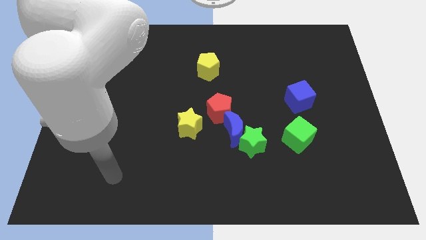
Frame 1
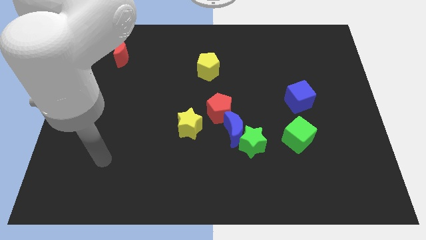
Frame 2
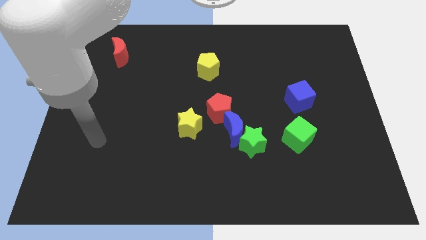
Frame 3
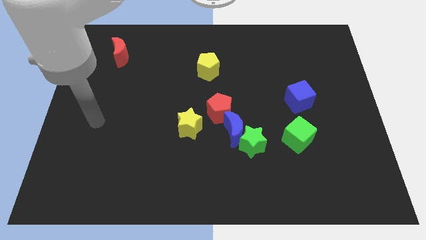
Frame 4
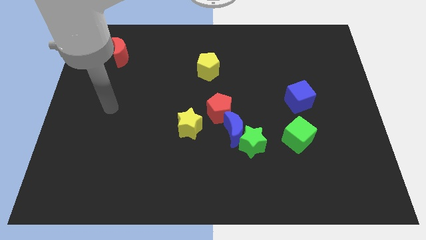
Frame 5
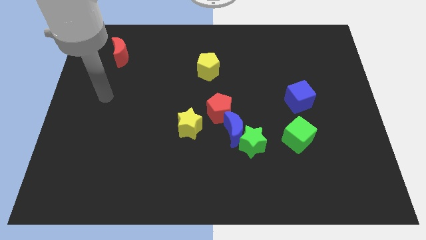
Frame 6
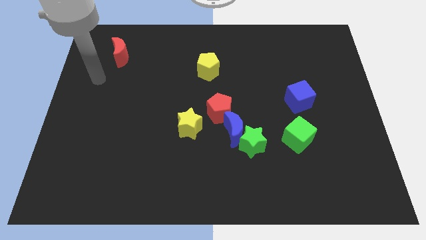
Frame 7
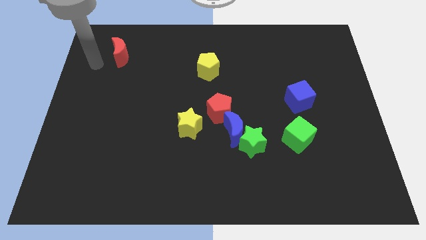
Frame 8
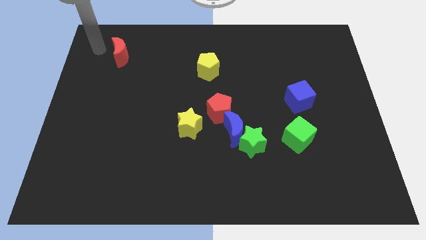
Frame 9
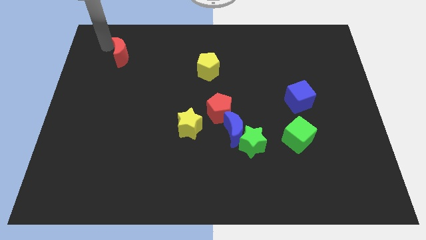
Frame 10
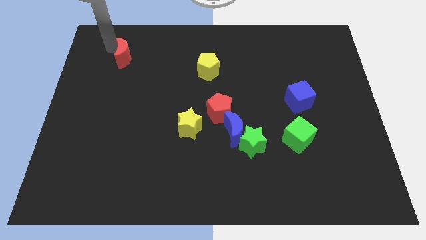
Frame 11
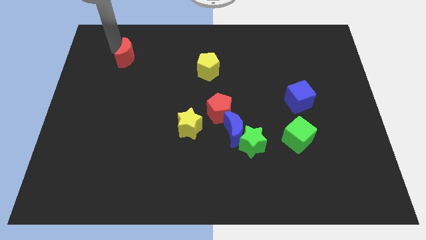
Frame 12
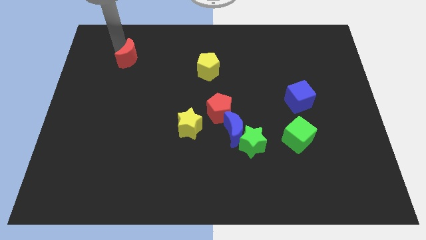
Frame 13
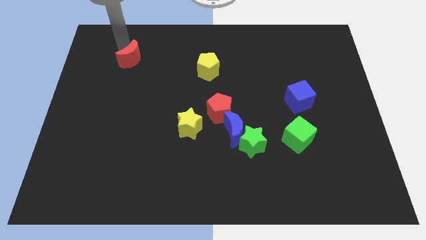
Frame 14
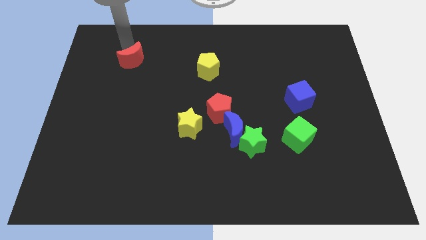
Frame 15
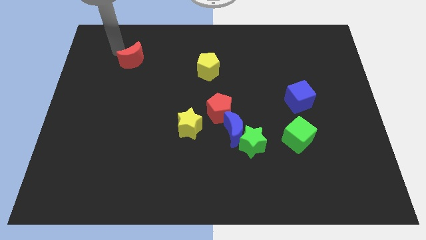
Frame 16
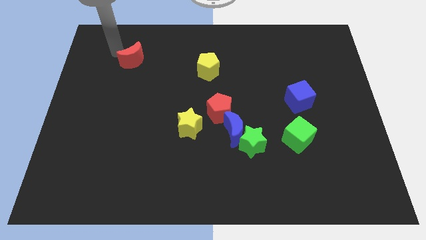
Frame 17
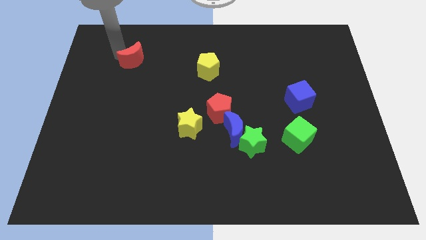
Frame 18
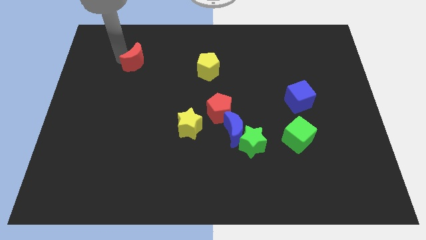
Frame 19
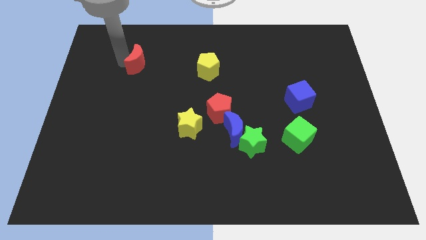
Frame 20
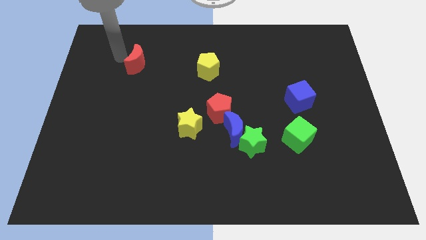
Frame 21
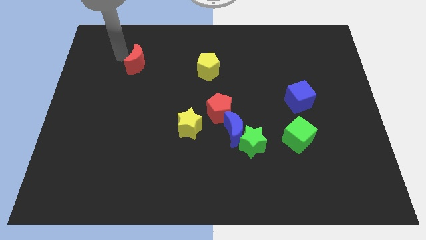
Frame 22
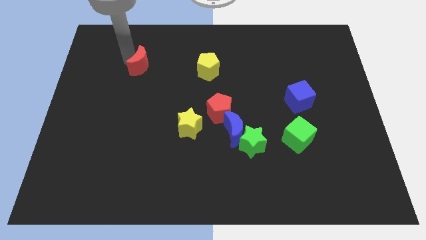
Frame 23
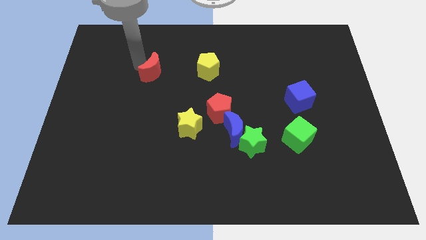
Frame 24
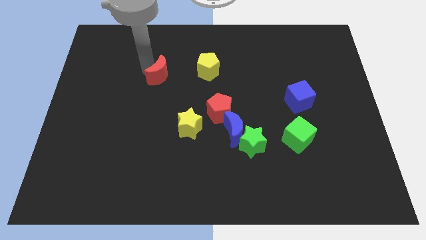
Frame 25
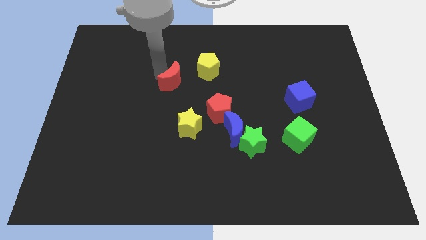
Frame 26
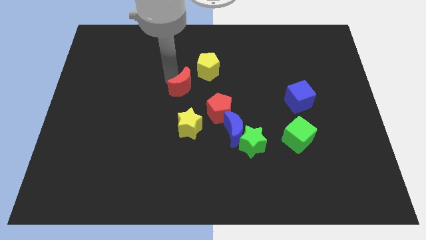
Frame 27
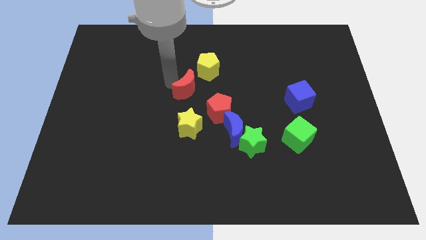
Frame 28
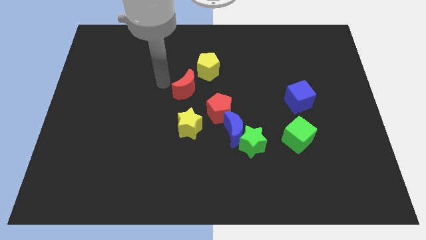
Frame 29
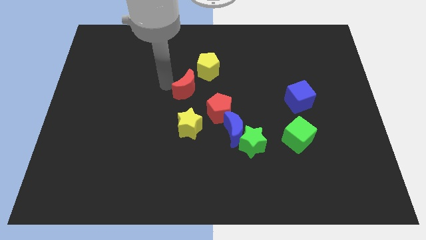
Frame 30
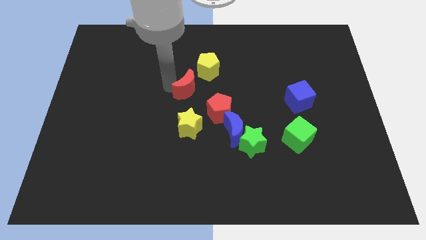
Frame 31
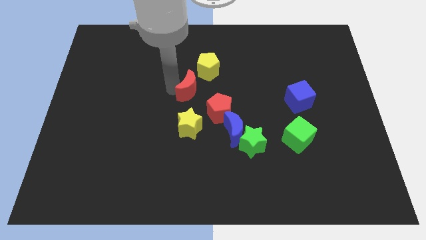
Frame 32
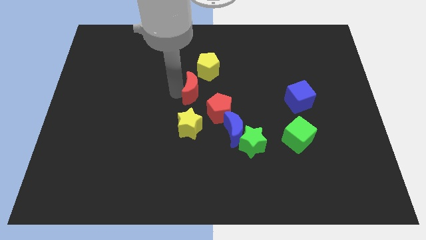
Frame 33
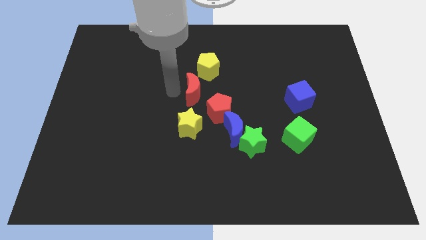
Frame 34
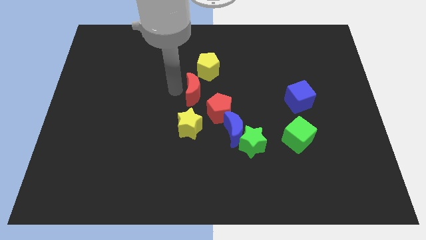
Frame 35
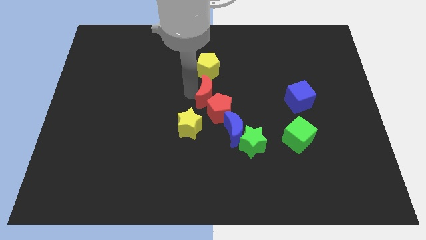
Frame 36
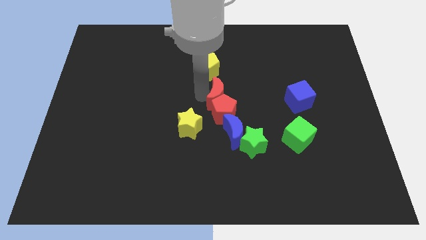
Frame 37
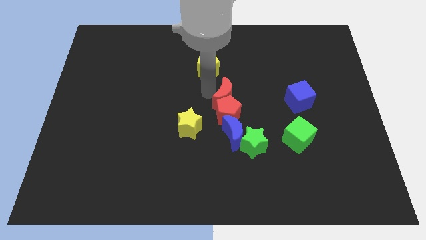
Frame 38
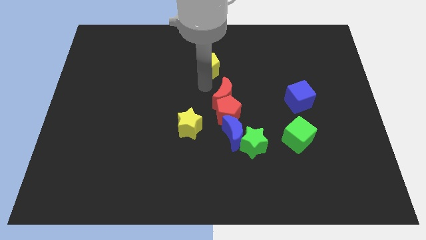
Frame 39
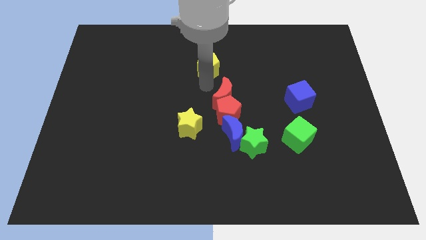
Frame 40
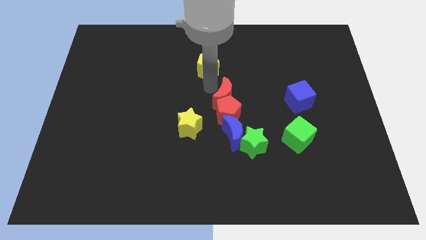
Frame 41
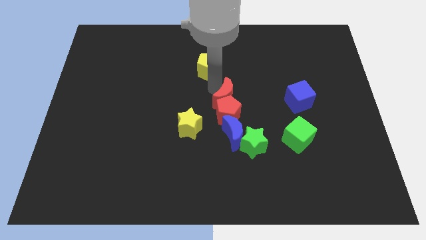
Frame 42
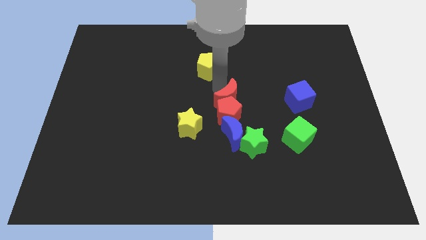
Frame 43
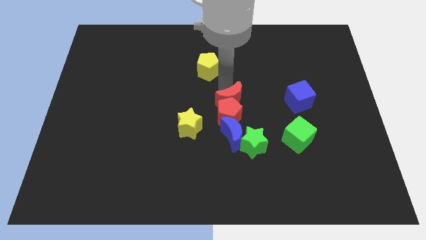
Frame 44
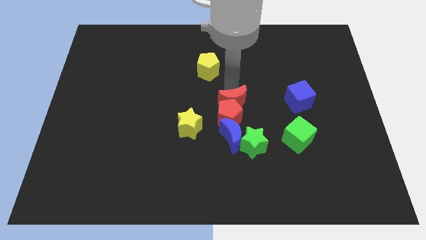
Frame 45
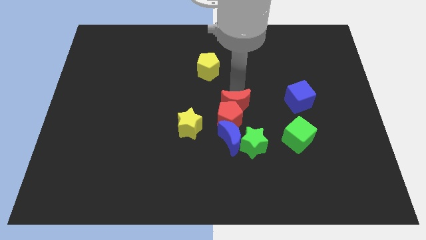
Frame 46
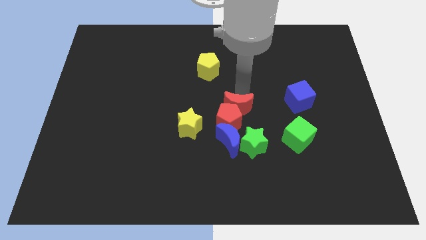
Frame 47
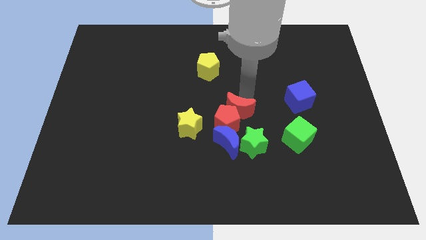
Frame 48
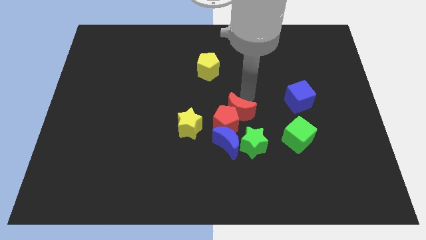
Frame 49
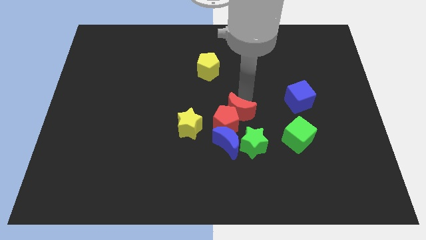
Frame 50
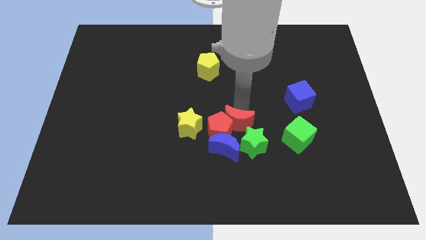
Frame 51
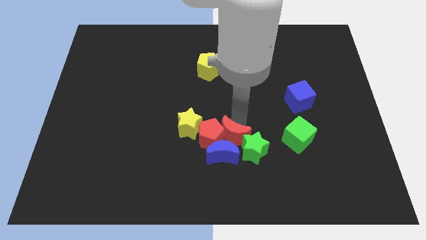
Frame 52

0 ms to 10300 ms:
push the red moon towards the blue moon

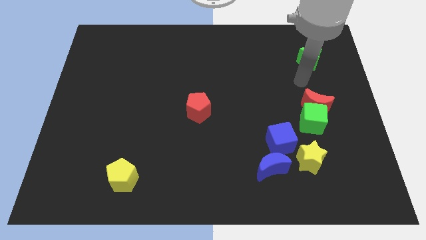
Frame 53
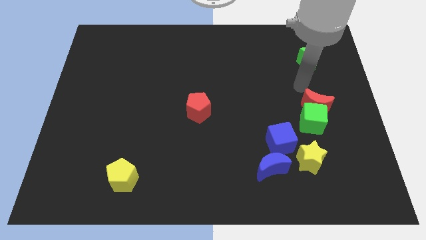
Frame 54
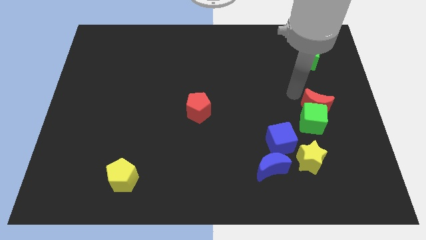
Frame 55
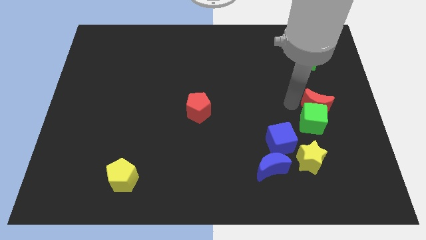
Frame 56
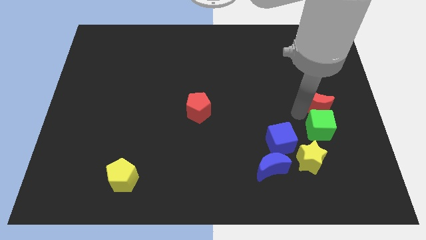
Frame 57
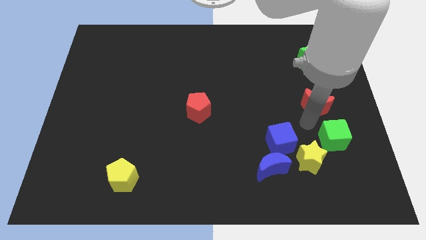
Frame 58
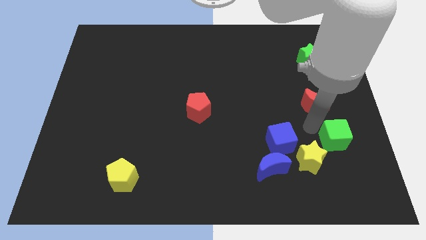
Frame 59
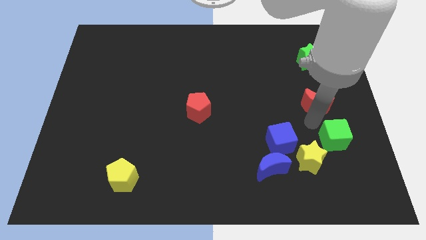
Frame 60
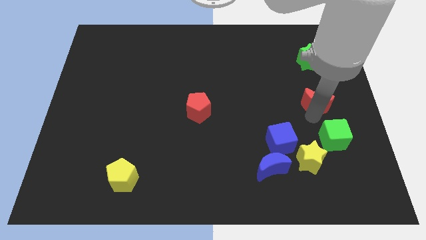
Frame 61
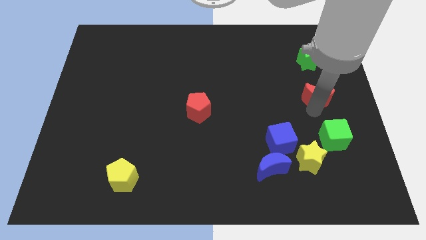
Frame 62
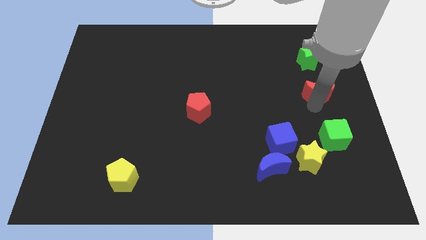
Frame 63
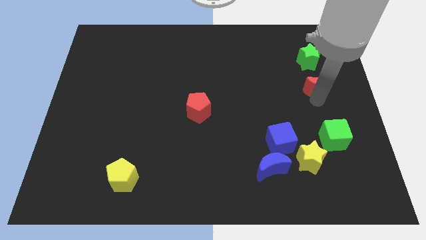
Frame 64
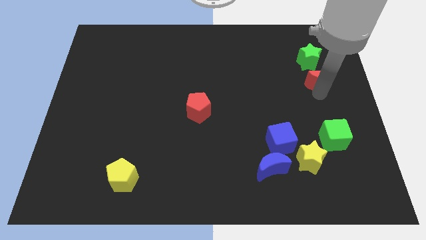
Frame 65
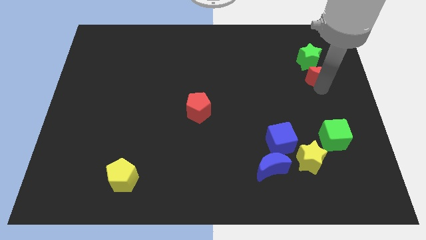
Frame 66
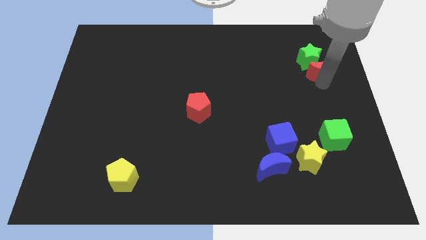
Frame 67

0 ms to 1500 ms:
move the red moon to the green star

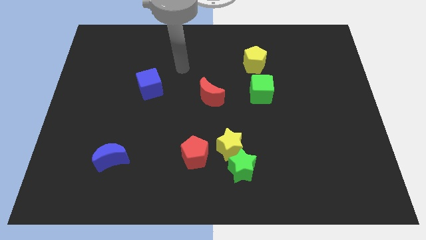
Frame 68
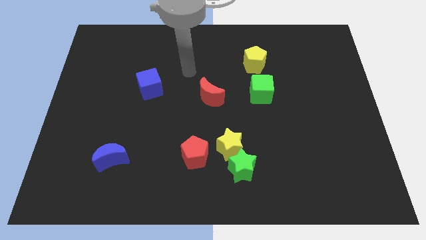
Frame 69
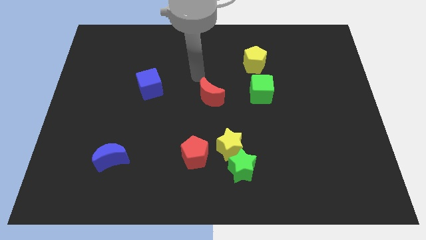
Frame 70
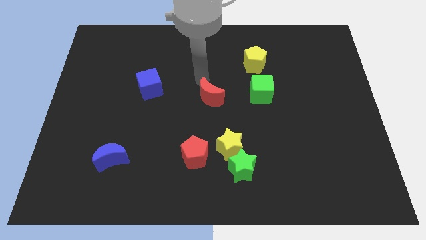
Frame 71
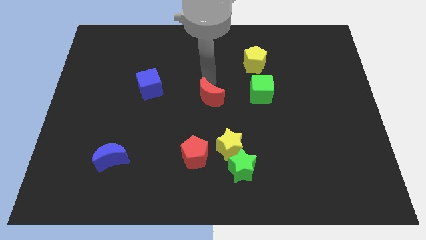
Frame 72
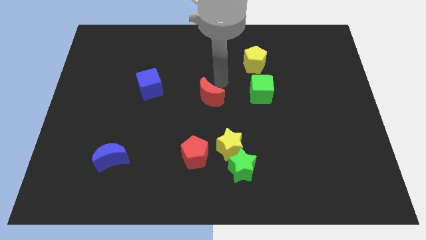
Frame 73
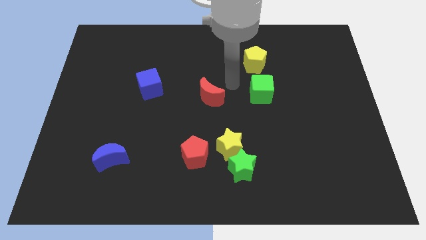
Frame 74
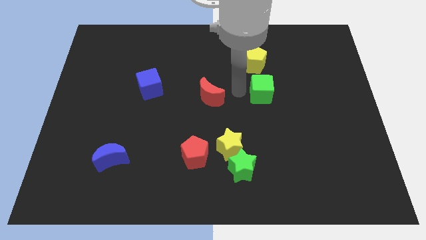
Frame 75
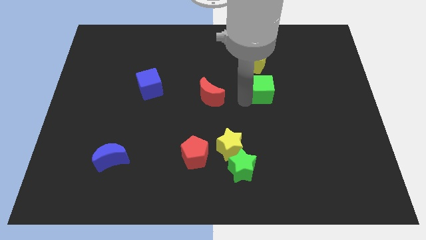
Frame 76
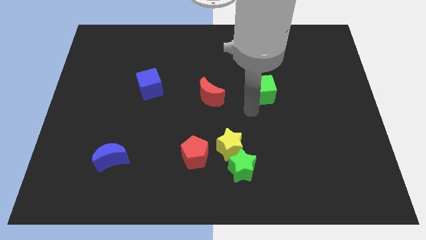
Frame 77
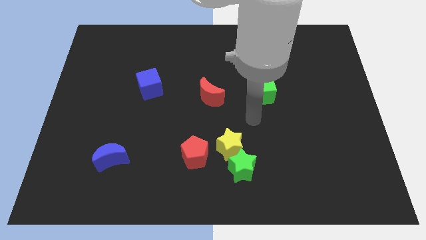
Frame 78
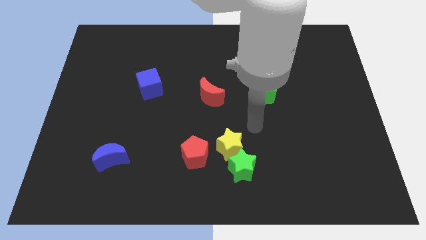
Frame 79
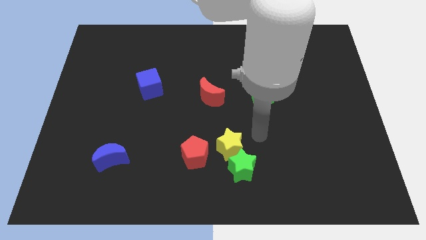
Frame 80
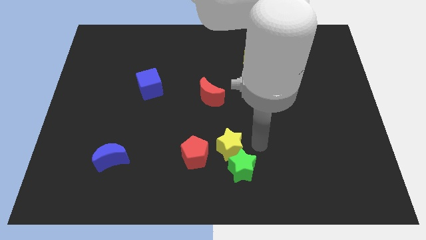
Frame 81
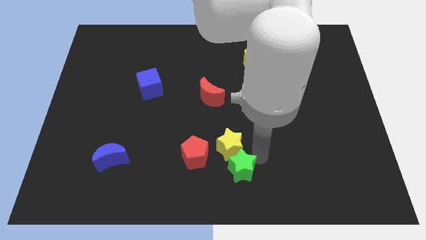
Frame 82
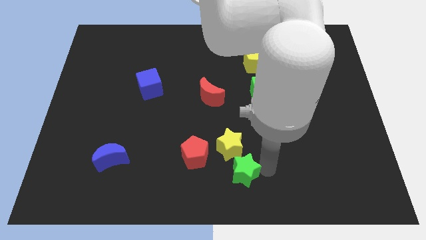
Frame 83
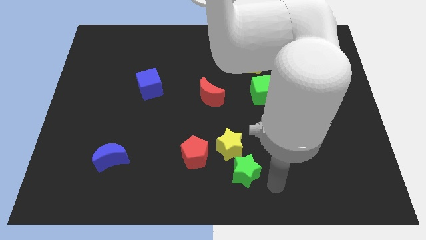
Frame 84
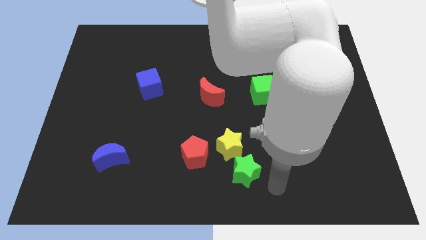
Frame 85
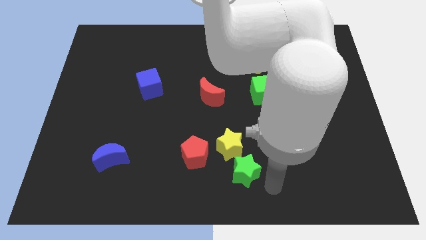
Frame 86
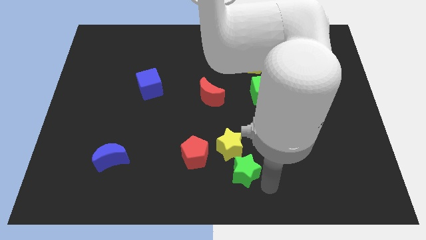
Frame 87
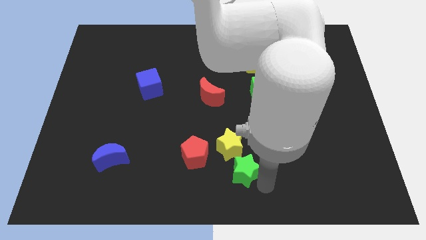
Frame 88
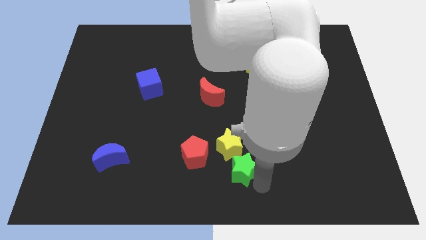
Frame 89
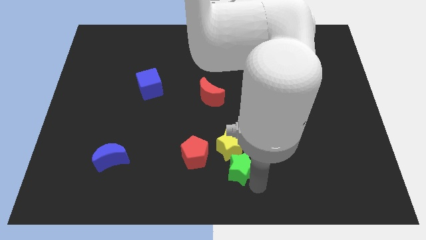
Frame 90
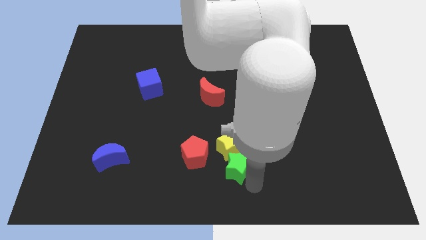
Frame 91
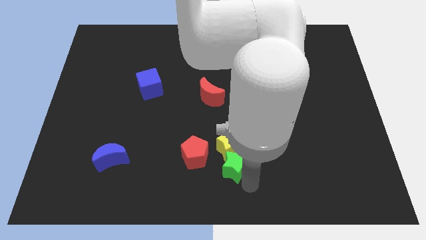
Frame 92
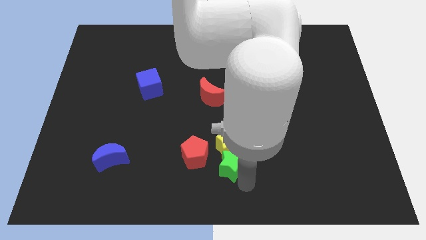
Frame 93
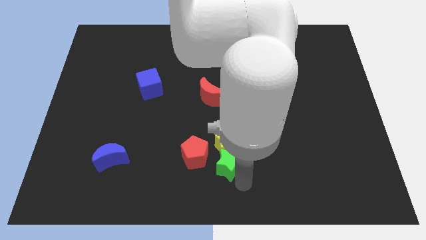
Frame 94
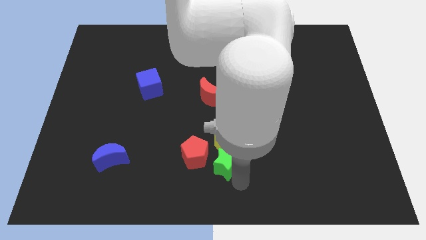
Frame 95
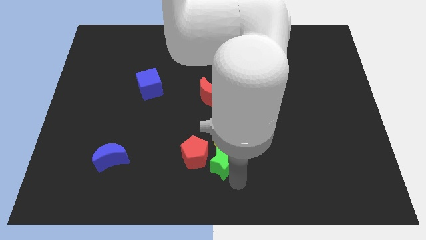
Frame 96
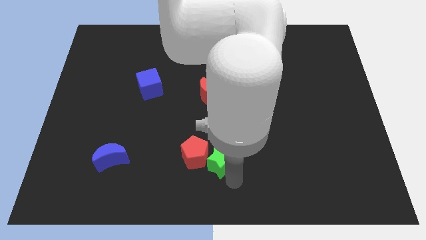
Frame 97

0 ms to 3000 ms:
slide the green star to the red pentagon
